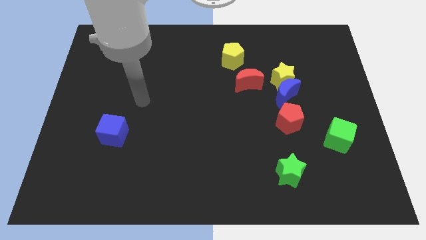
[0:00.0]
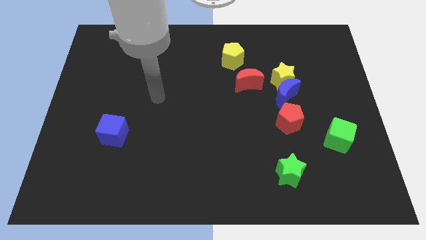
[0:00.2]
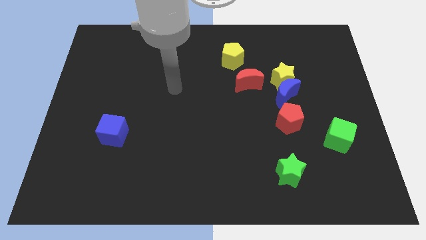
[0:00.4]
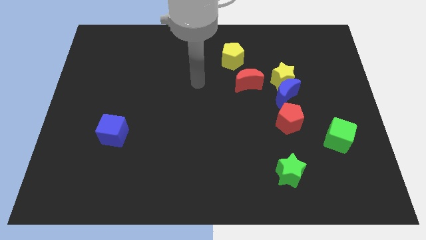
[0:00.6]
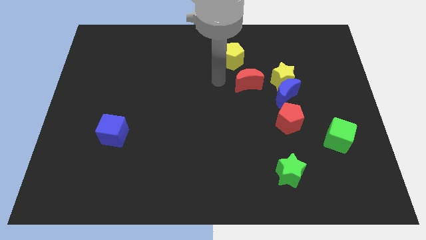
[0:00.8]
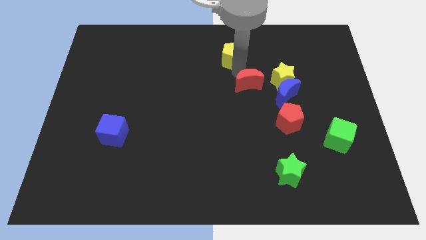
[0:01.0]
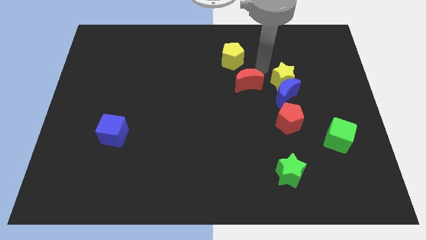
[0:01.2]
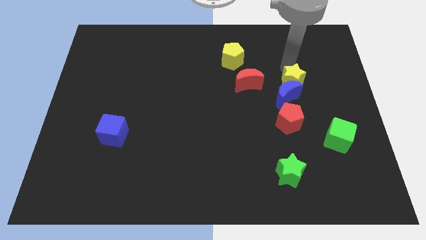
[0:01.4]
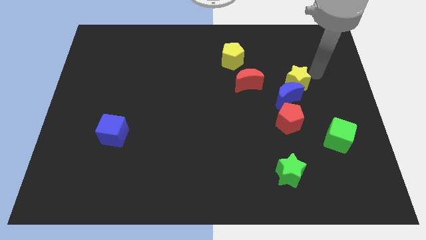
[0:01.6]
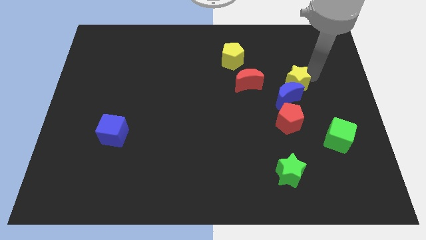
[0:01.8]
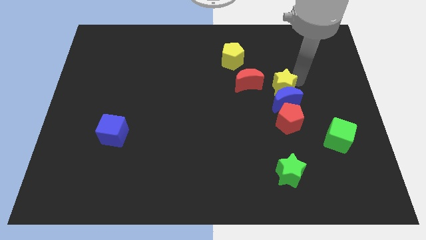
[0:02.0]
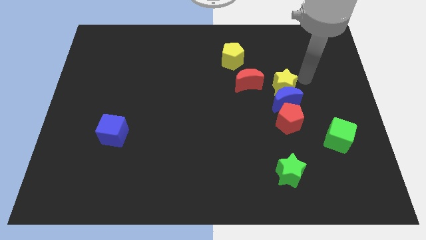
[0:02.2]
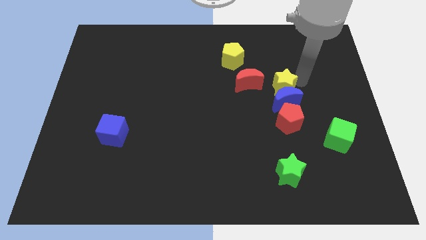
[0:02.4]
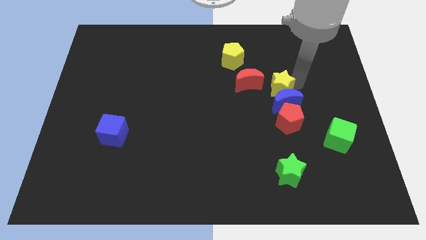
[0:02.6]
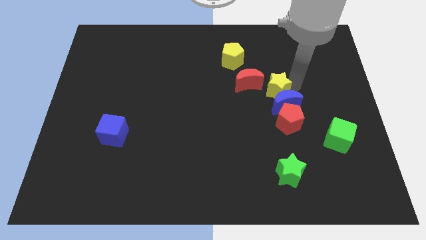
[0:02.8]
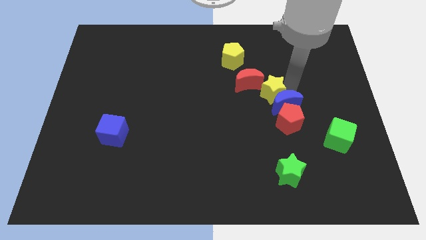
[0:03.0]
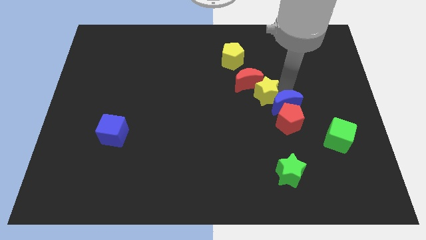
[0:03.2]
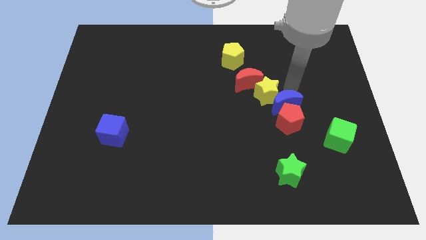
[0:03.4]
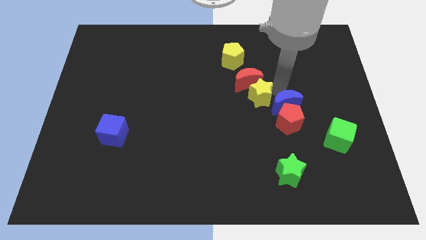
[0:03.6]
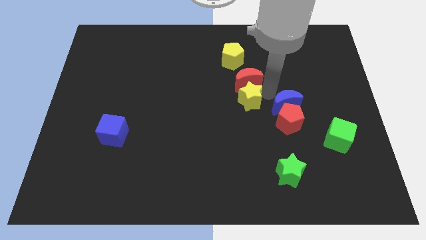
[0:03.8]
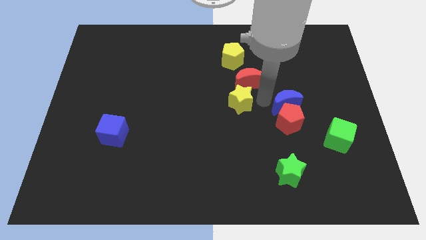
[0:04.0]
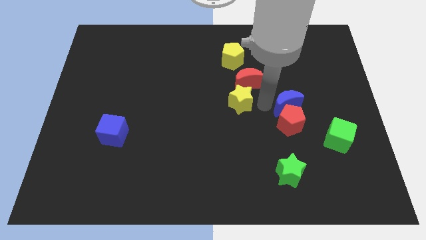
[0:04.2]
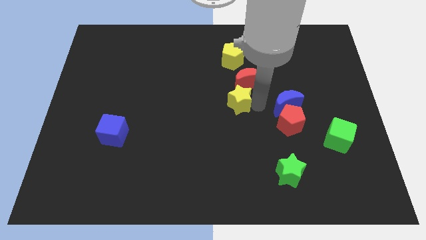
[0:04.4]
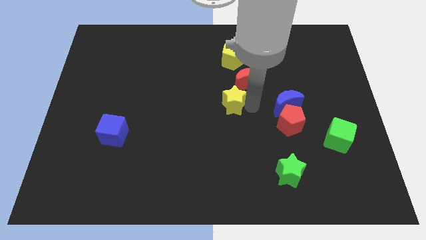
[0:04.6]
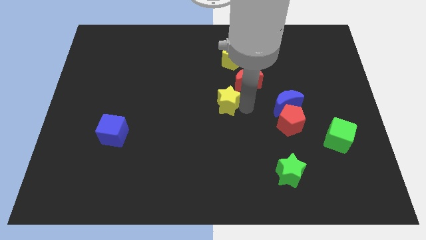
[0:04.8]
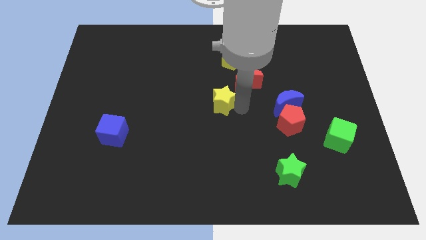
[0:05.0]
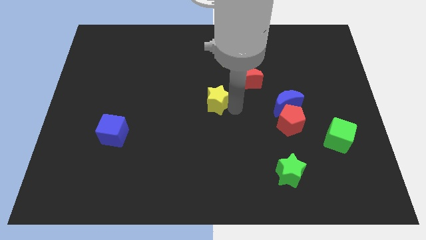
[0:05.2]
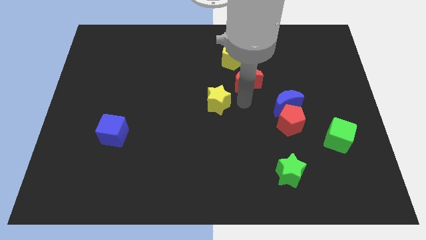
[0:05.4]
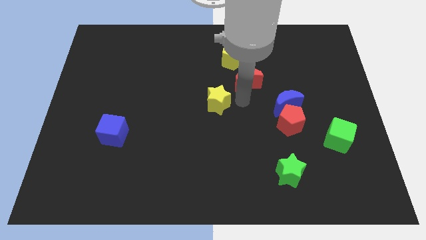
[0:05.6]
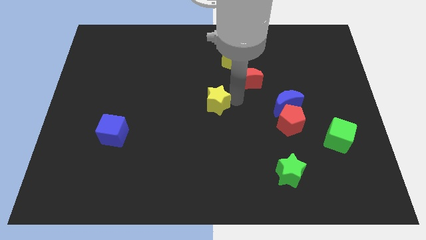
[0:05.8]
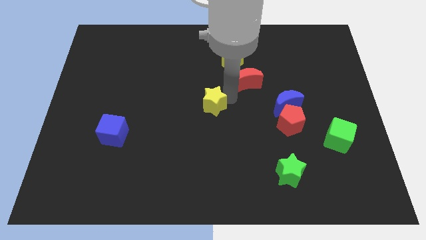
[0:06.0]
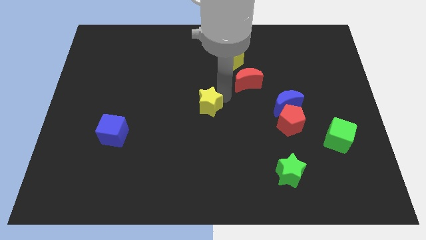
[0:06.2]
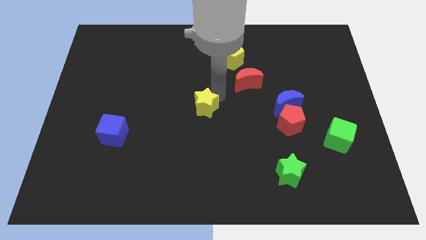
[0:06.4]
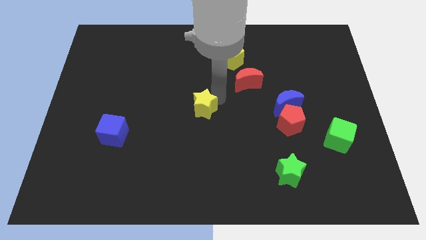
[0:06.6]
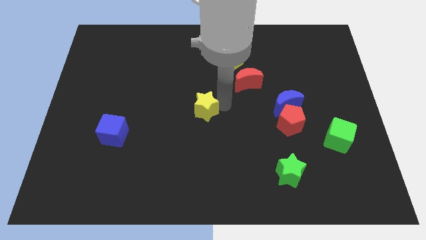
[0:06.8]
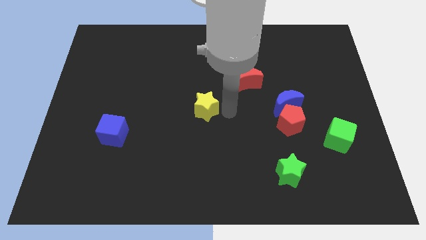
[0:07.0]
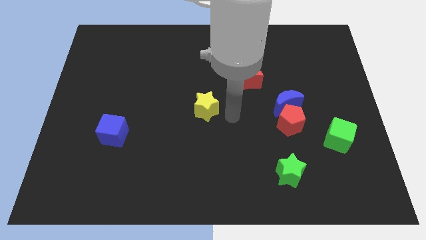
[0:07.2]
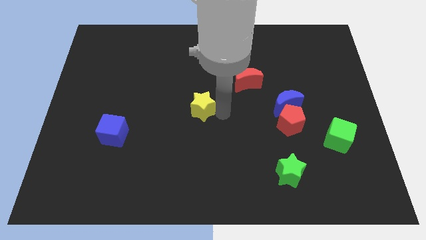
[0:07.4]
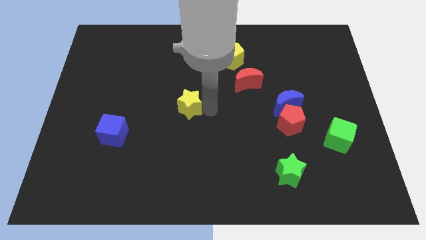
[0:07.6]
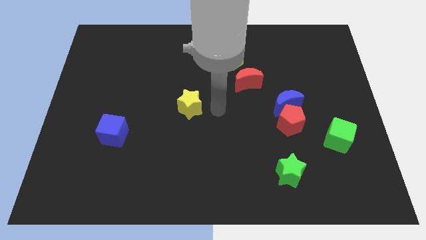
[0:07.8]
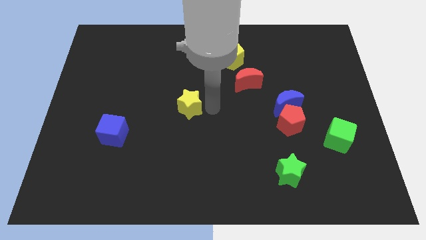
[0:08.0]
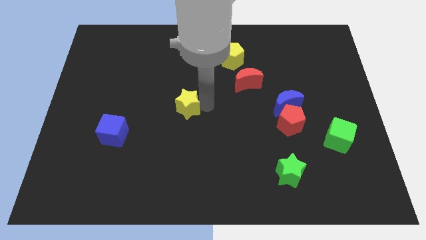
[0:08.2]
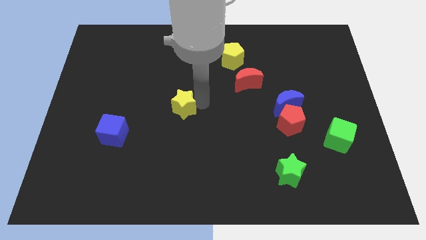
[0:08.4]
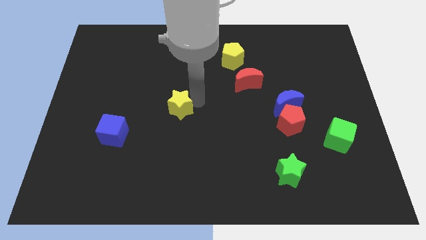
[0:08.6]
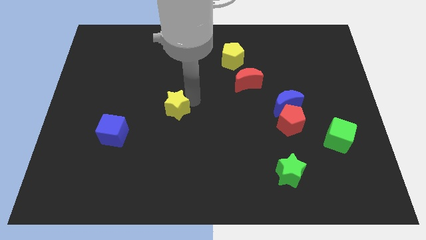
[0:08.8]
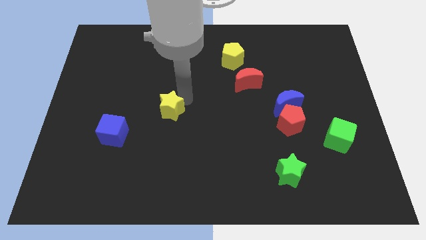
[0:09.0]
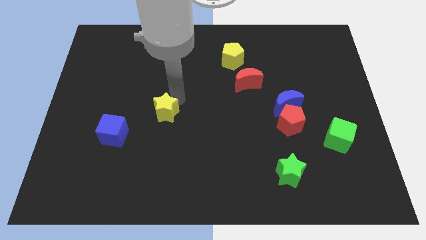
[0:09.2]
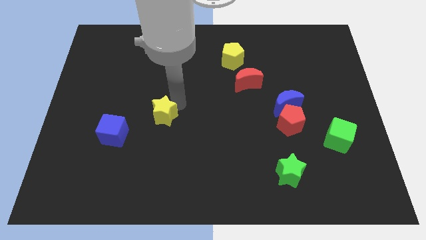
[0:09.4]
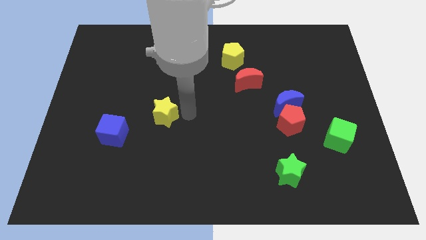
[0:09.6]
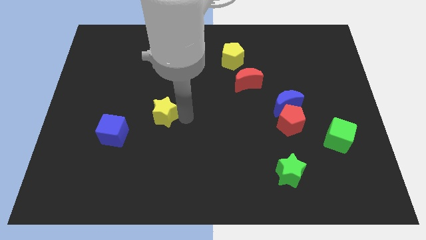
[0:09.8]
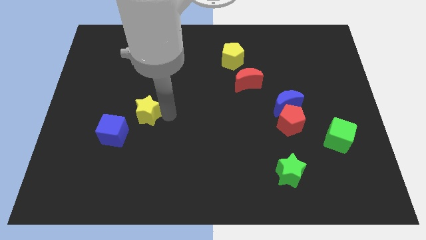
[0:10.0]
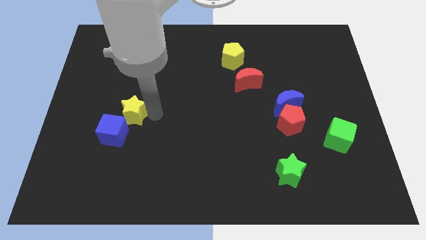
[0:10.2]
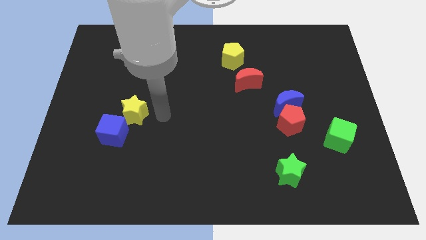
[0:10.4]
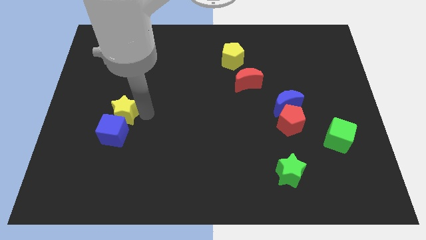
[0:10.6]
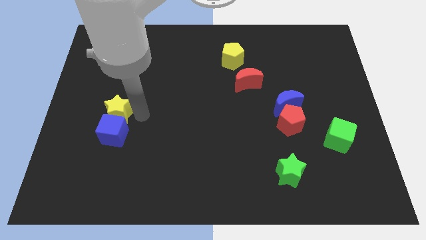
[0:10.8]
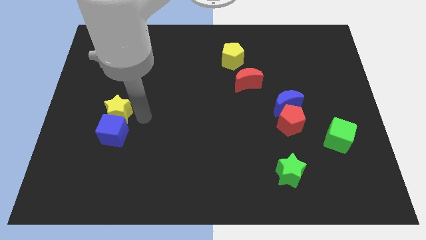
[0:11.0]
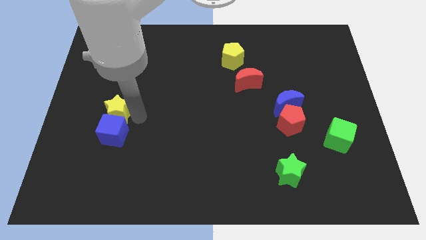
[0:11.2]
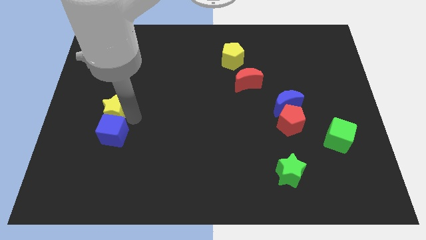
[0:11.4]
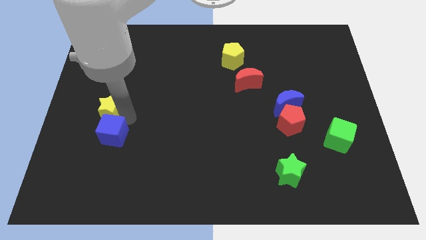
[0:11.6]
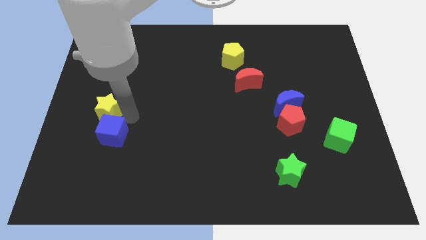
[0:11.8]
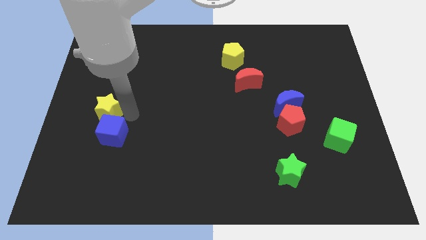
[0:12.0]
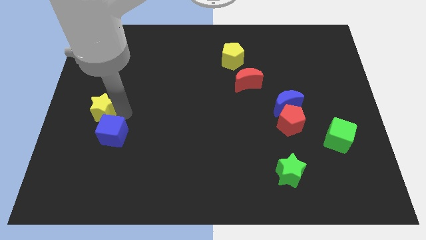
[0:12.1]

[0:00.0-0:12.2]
slide the yellow star to the center left
